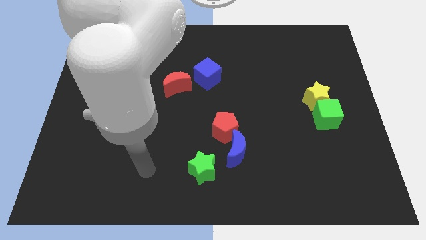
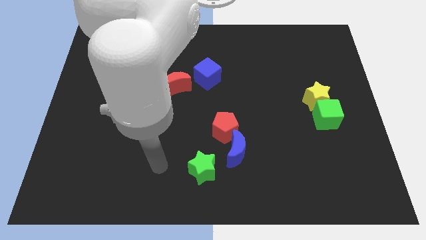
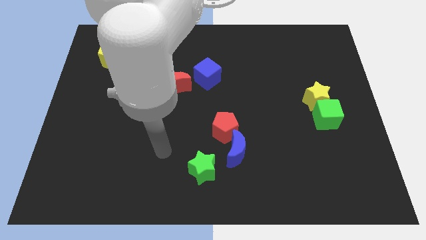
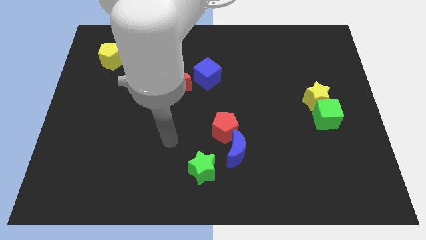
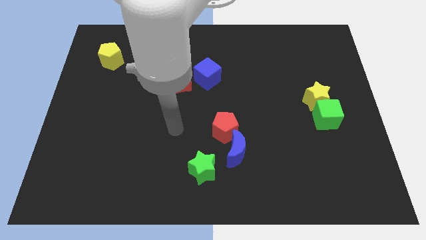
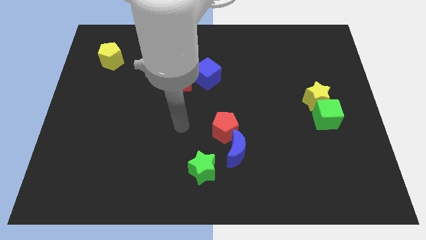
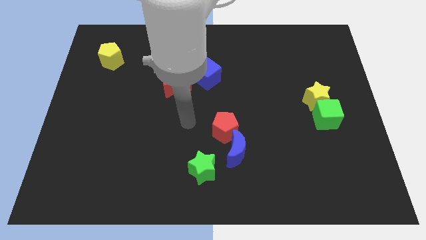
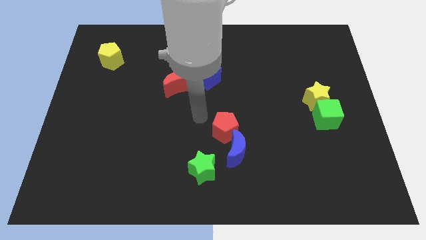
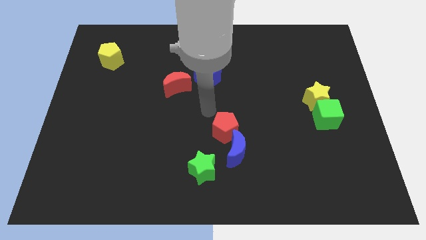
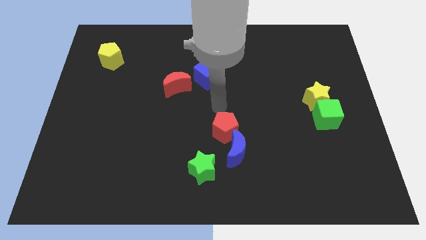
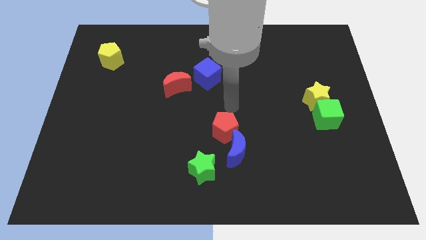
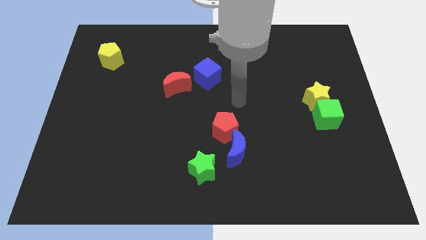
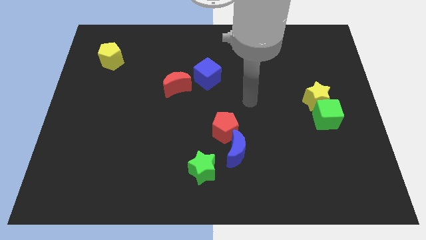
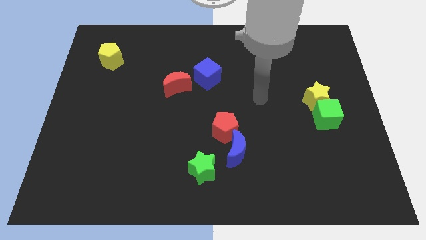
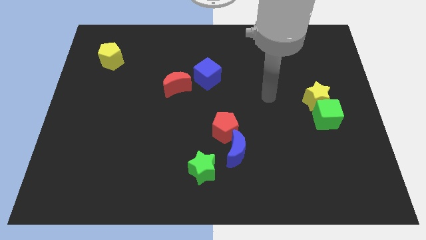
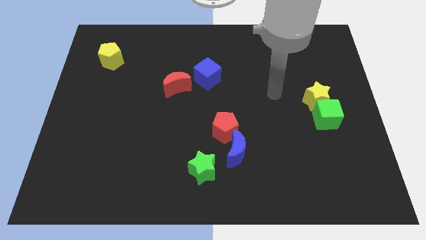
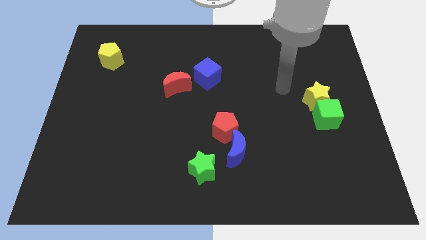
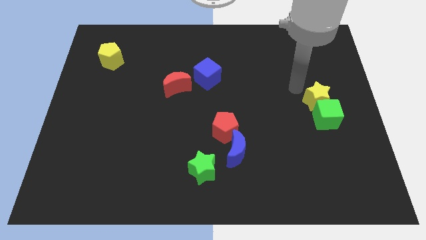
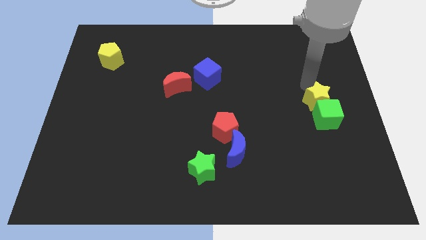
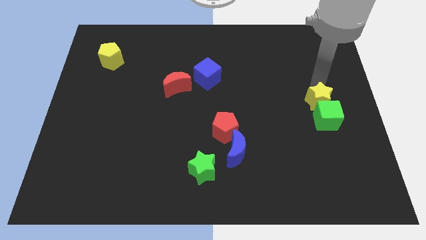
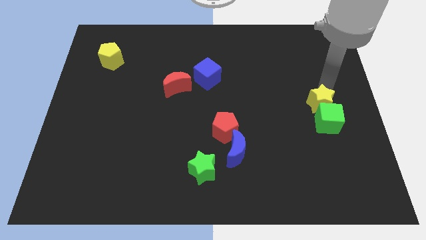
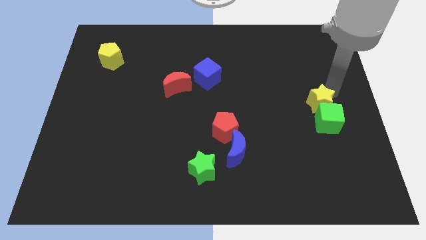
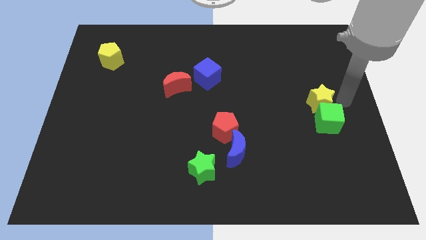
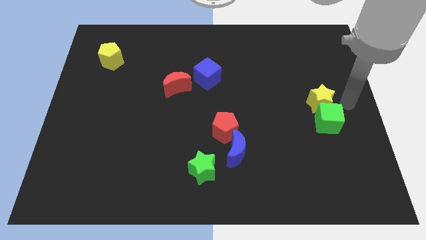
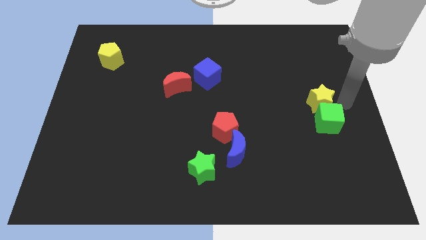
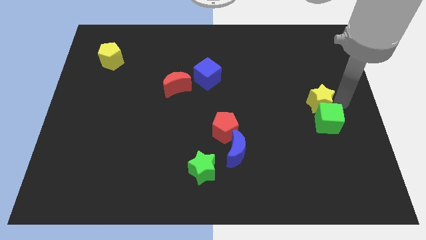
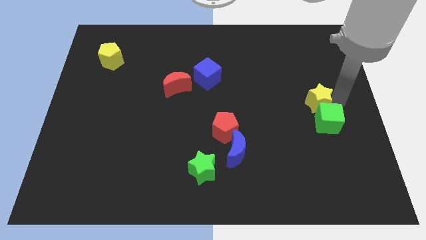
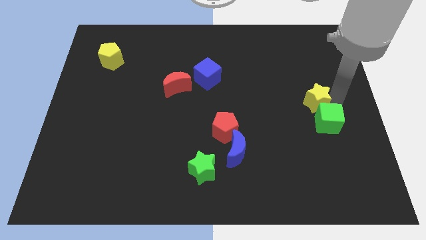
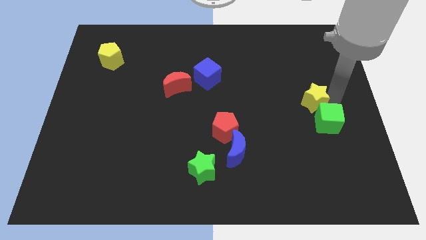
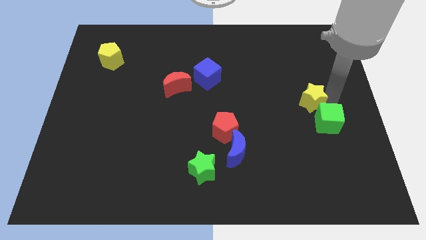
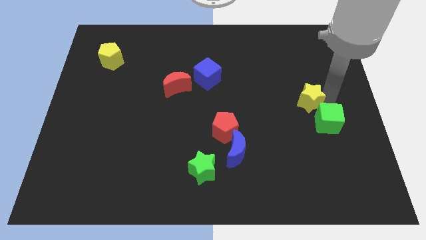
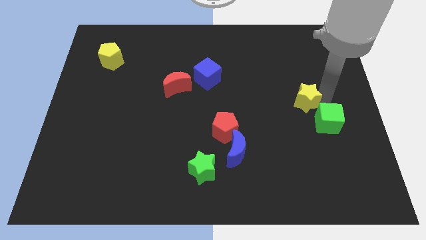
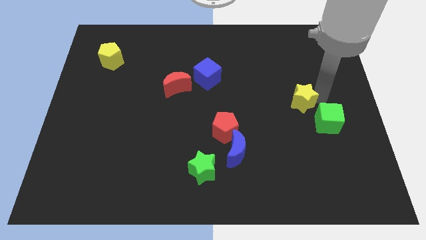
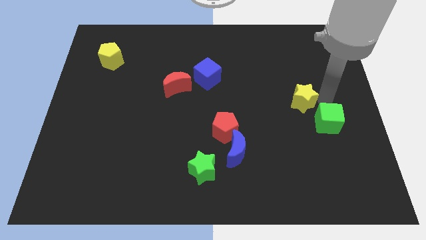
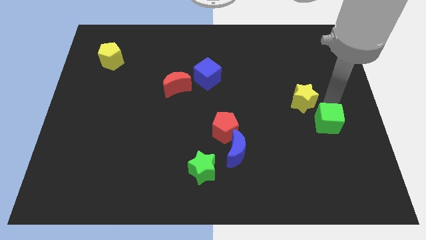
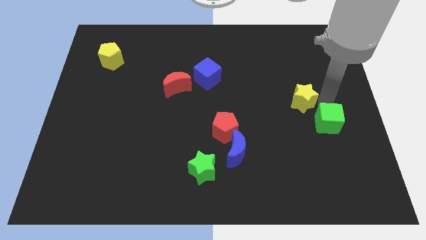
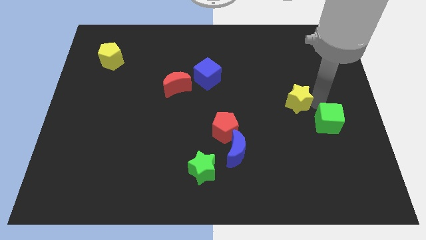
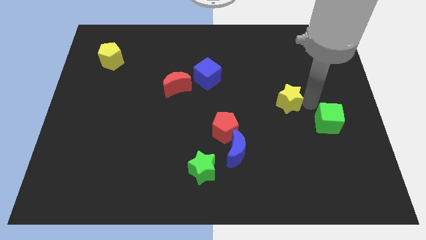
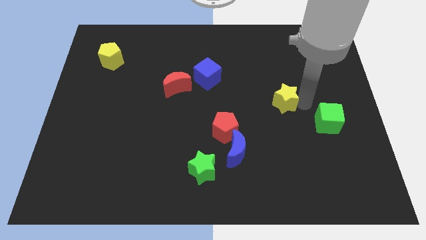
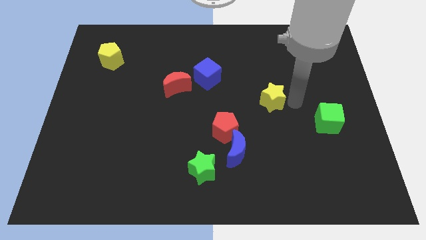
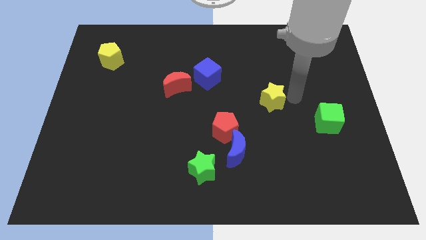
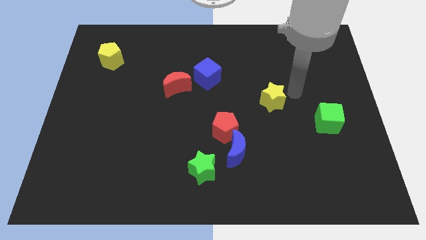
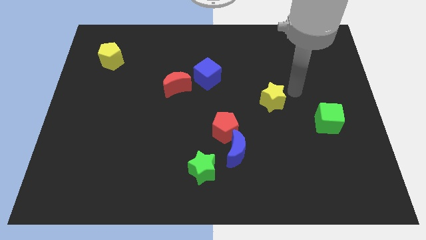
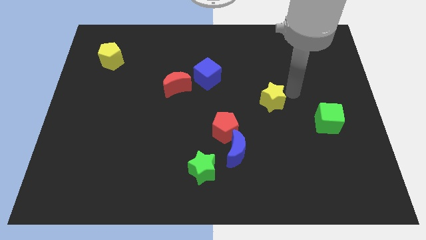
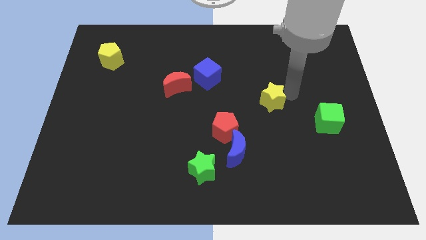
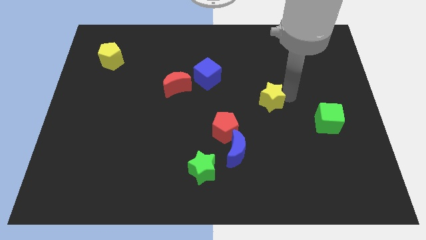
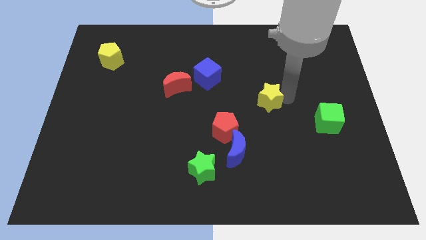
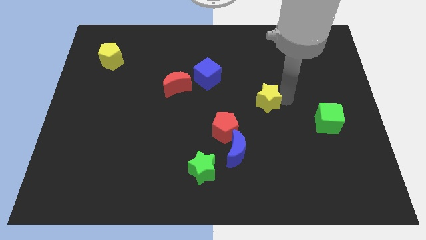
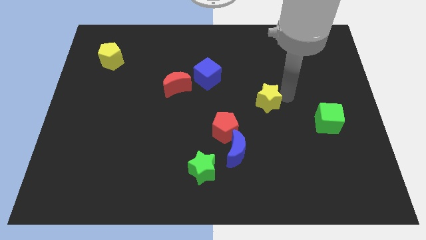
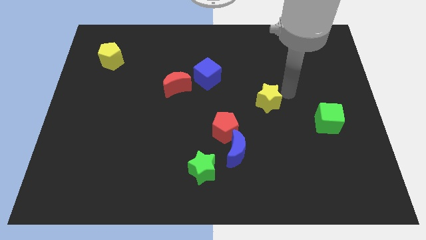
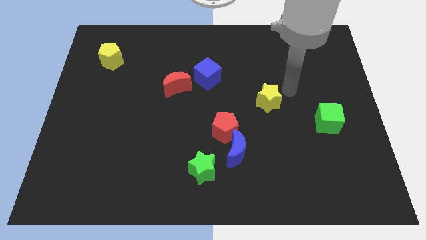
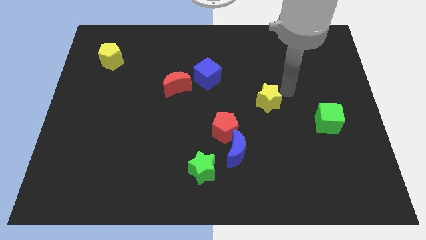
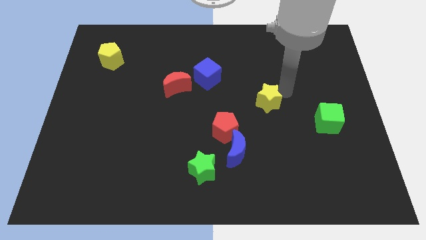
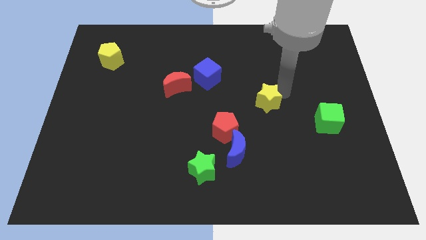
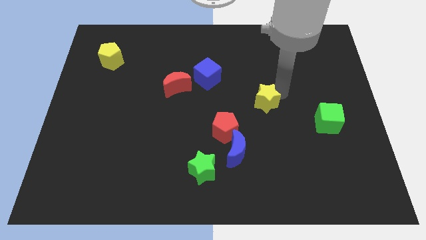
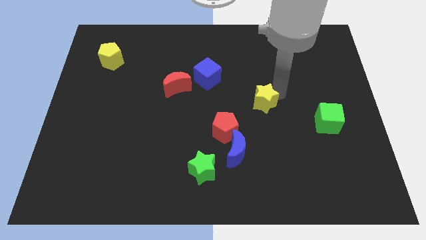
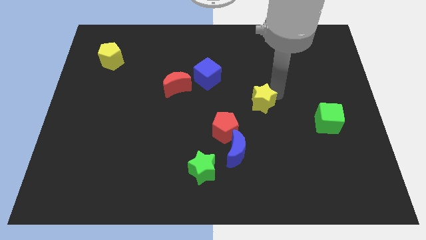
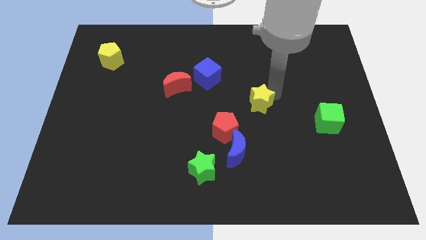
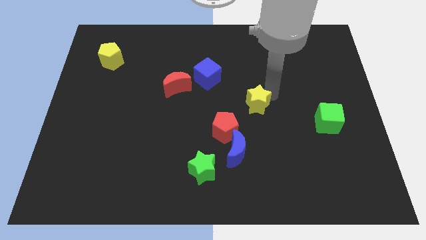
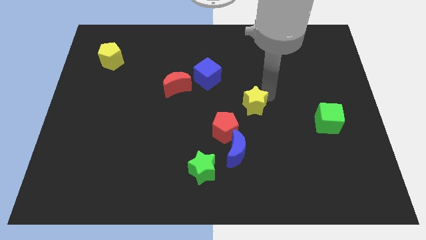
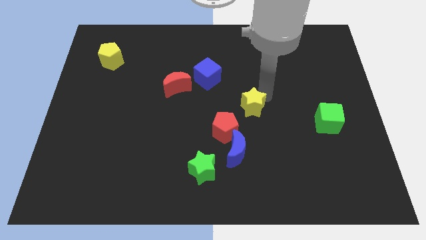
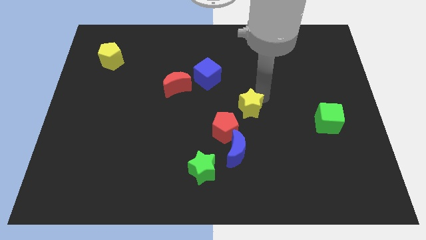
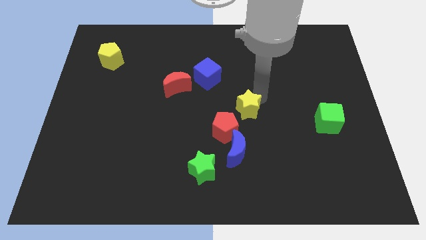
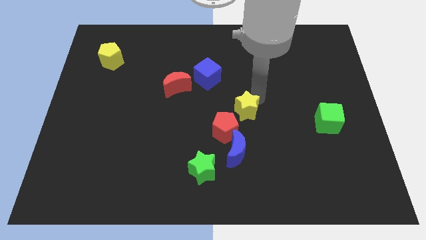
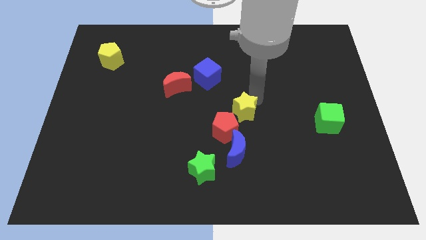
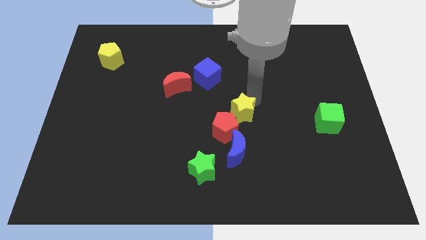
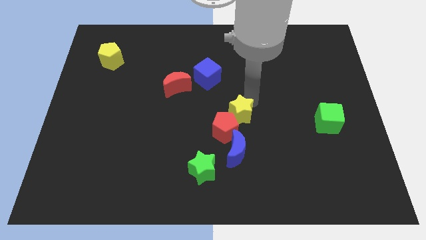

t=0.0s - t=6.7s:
slide the yellow star to the red pentagon
